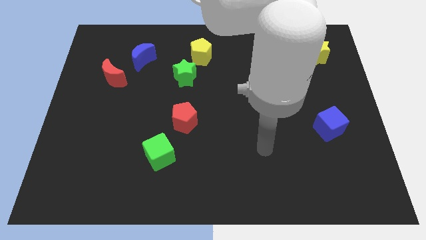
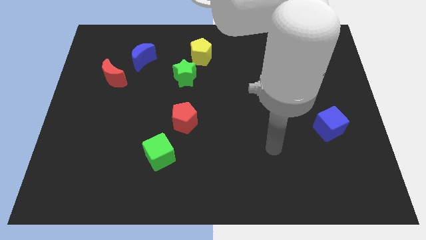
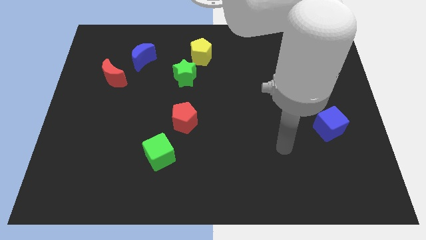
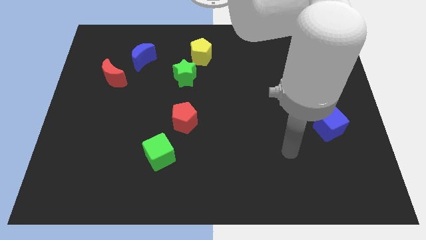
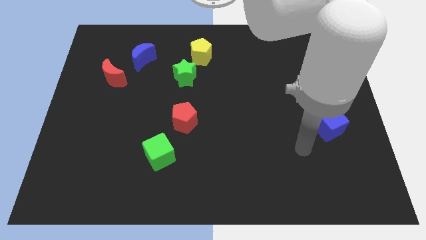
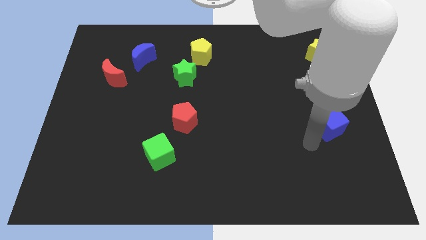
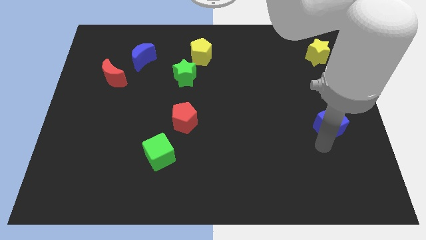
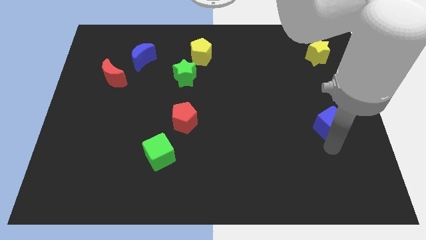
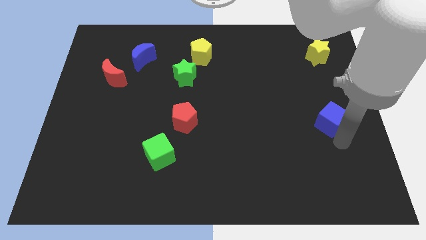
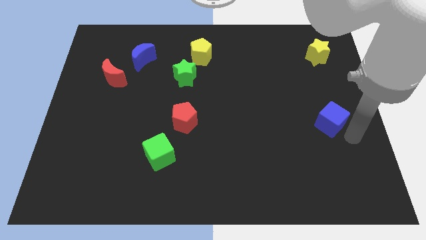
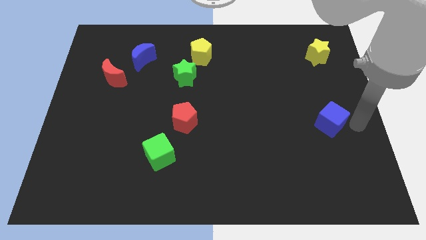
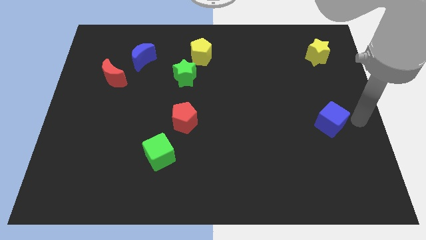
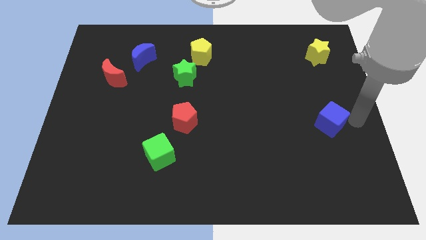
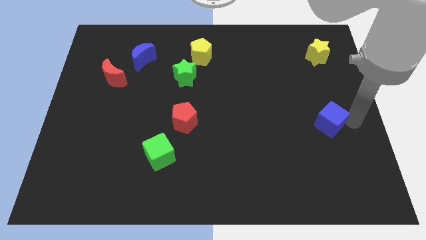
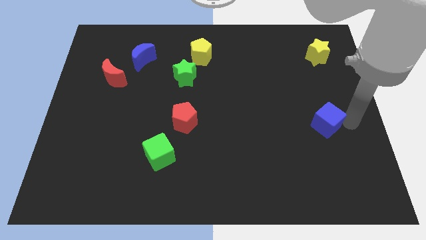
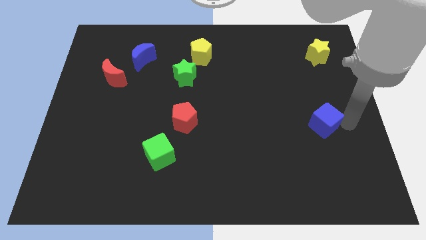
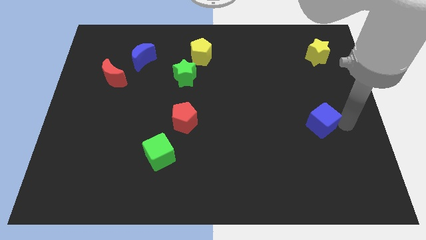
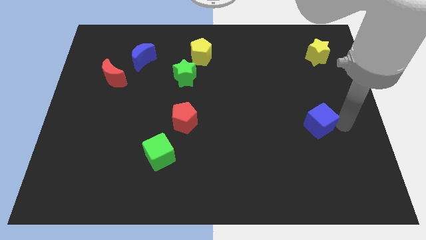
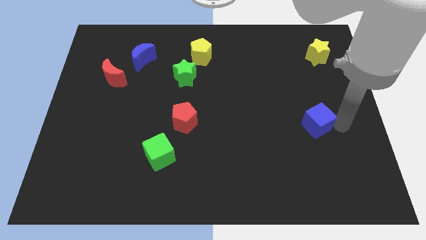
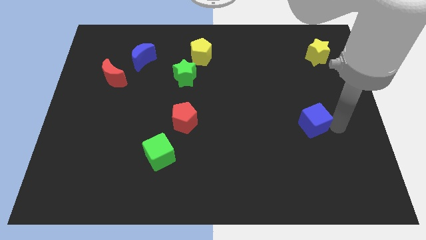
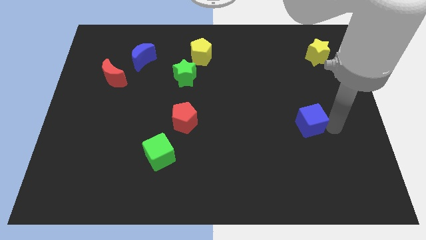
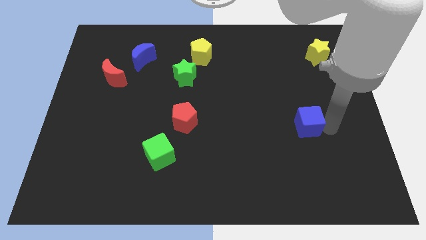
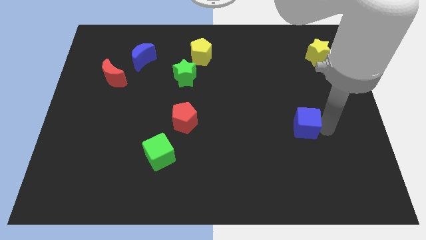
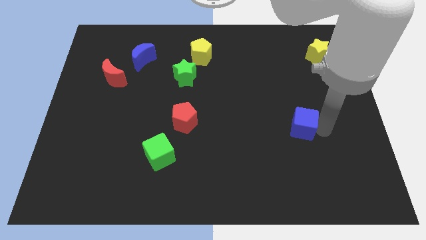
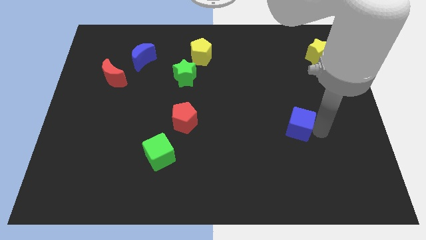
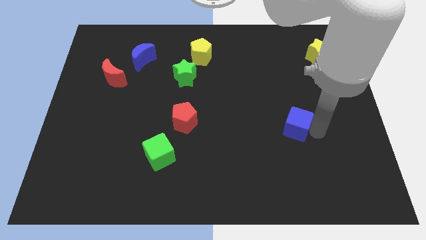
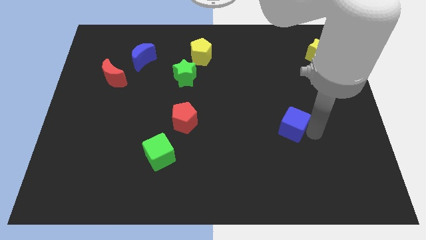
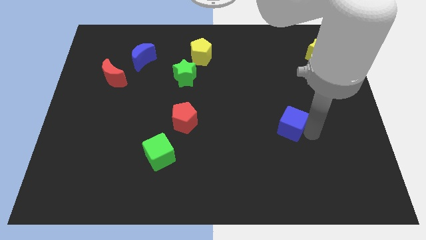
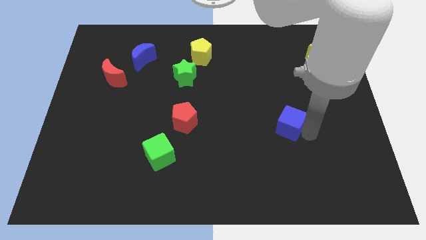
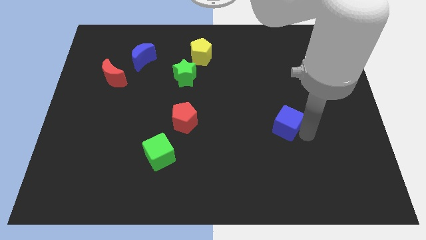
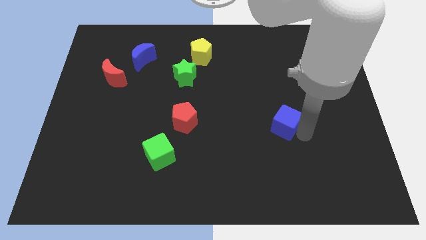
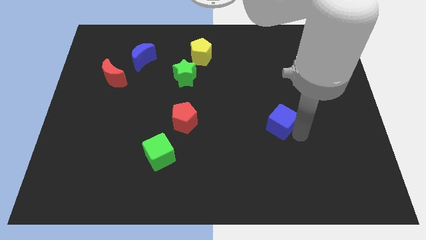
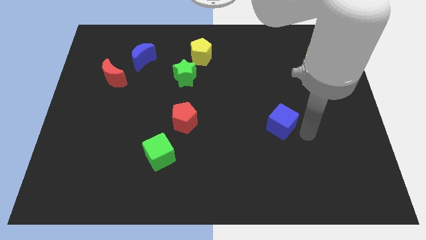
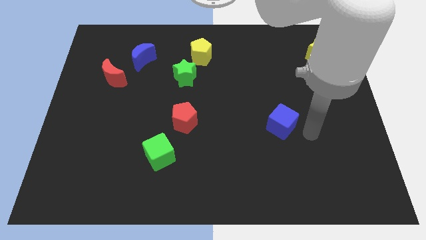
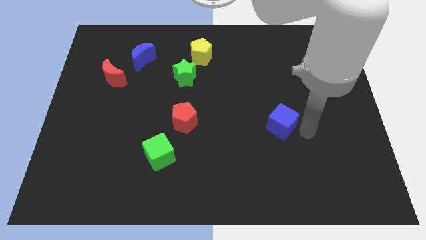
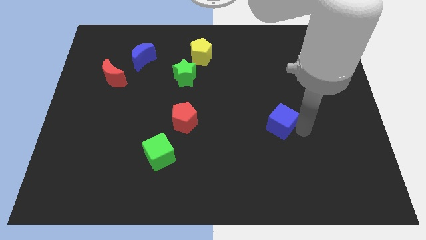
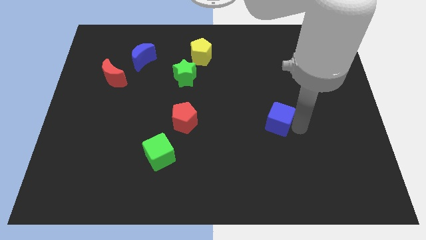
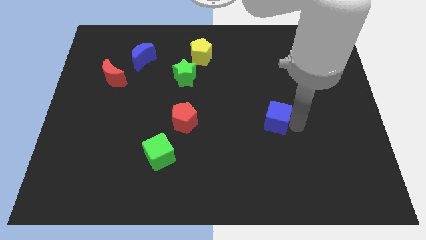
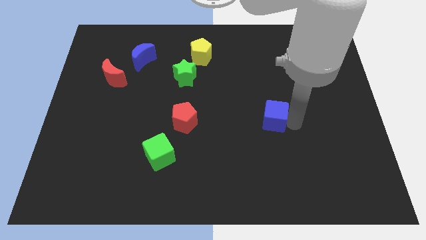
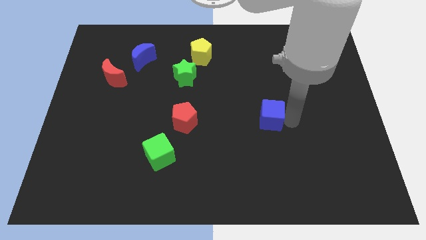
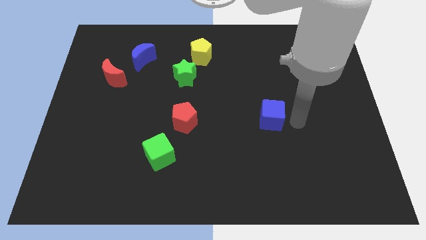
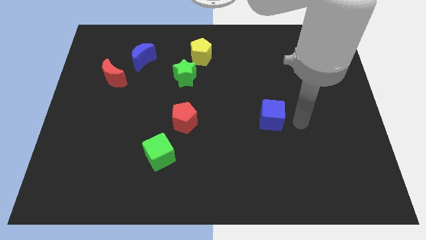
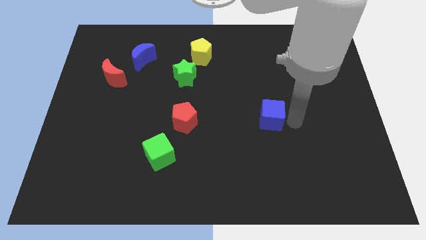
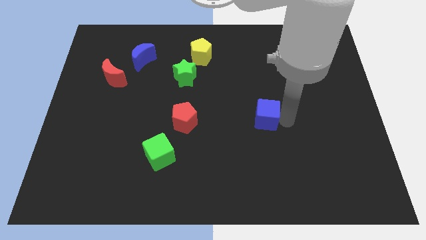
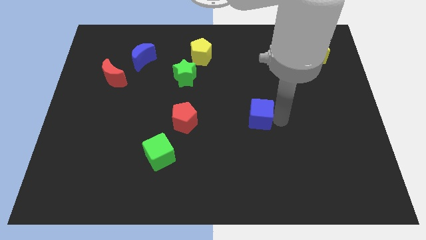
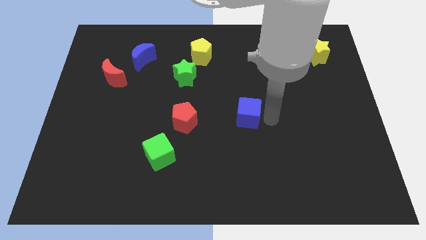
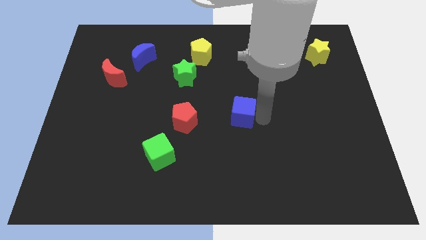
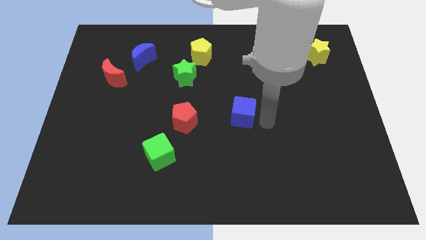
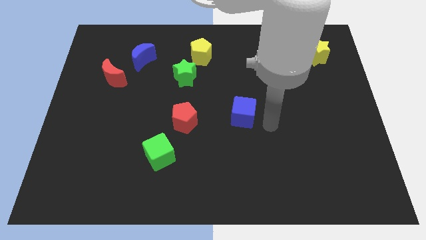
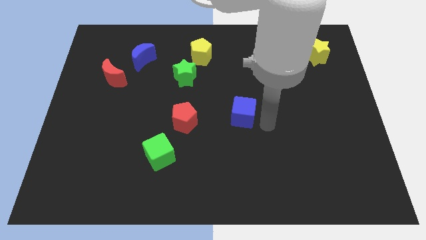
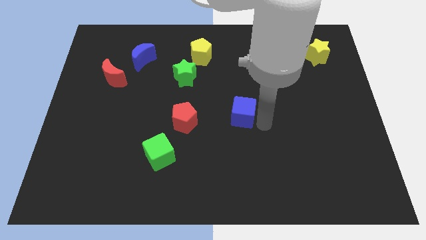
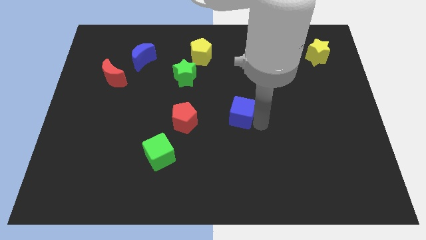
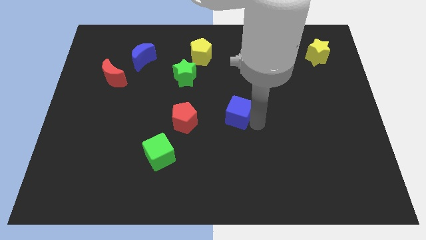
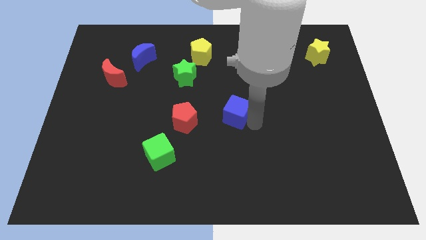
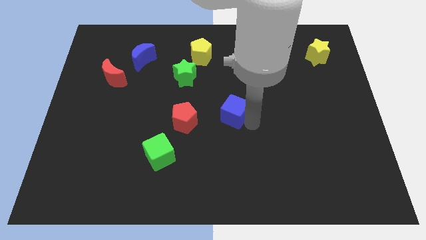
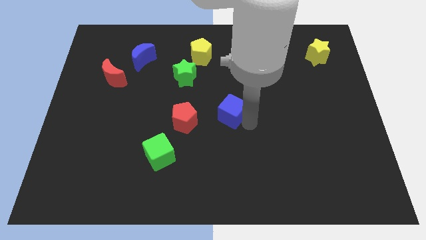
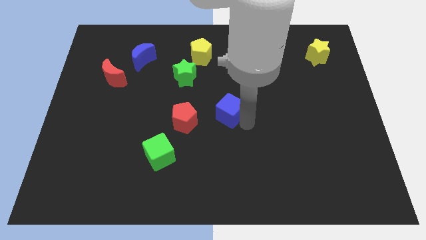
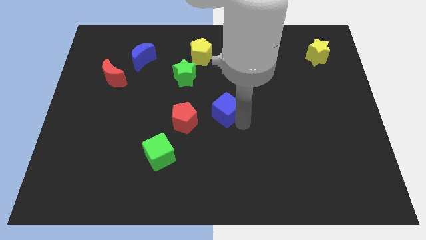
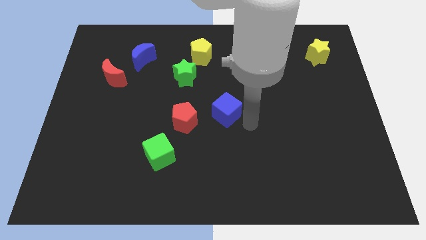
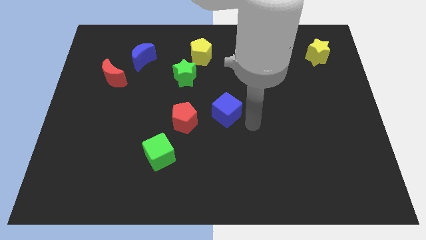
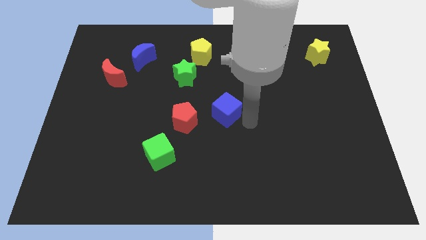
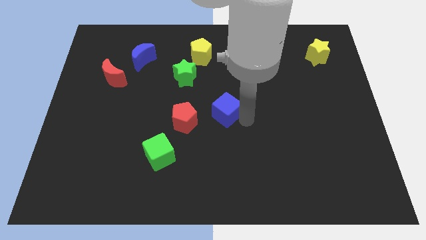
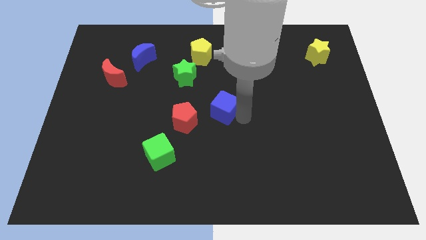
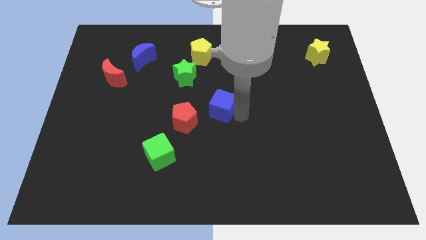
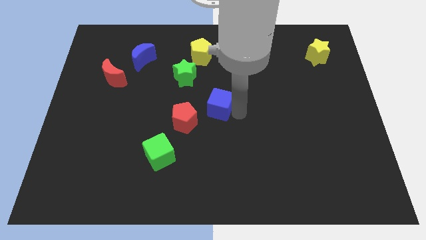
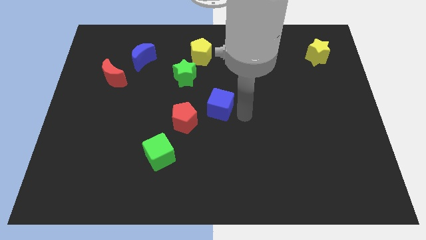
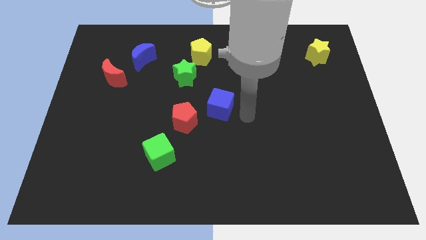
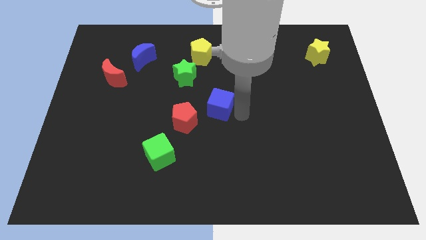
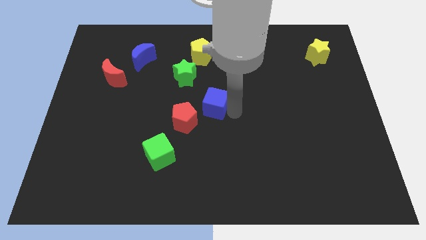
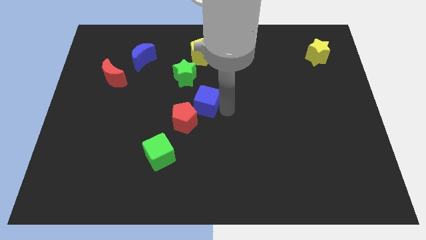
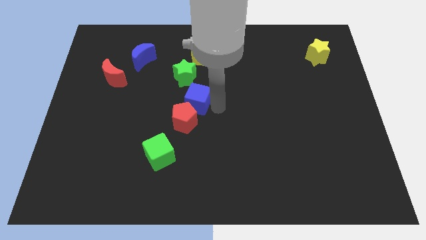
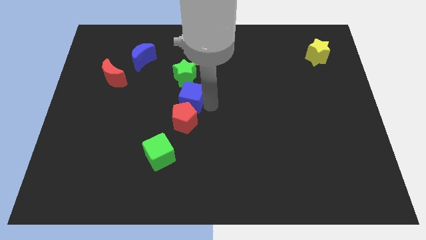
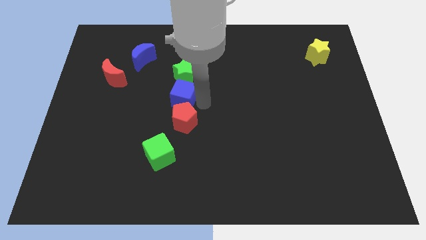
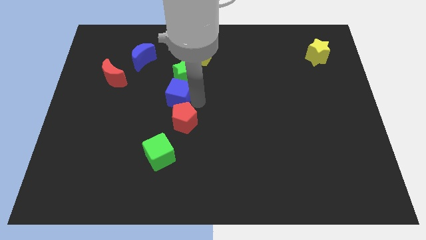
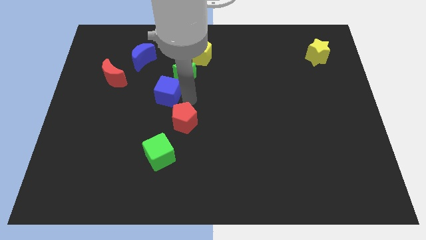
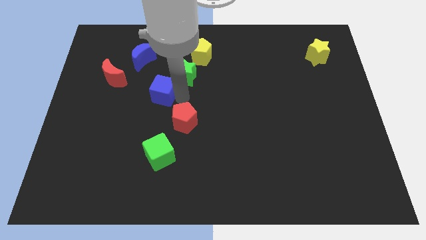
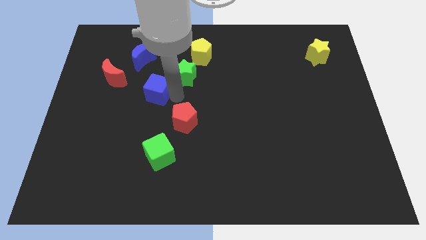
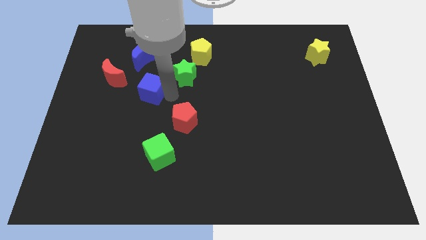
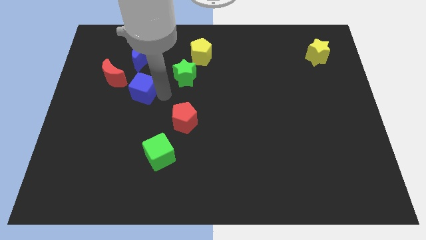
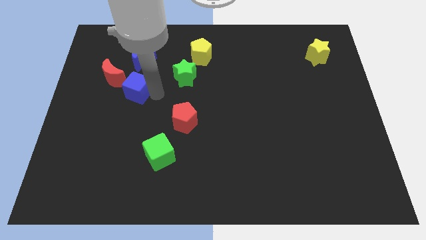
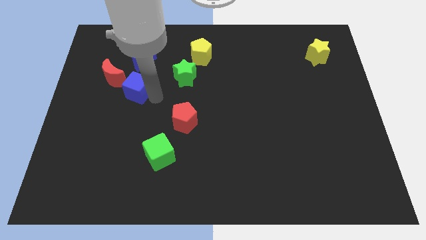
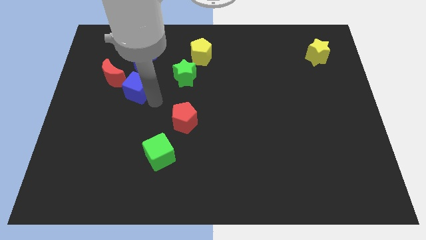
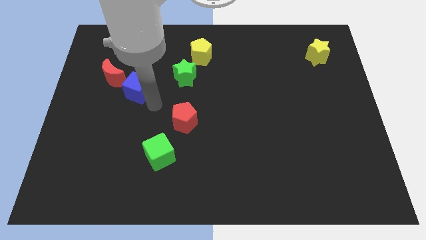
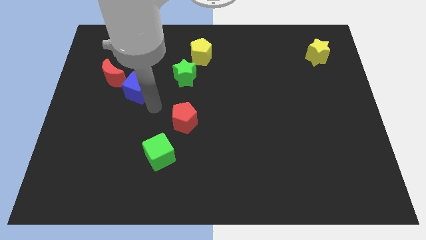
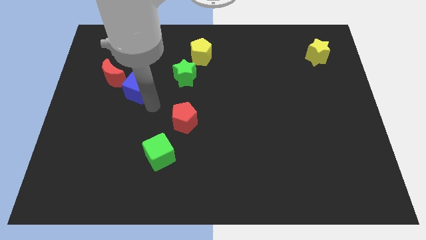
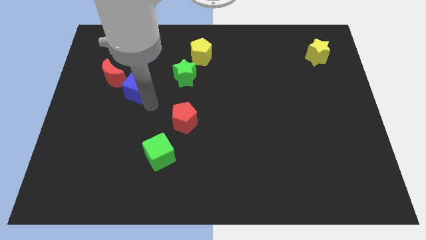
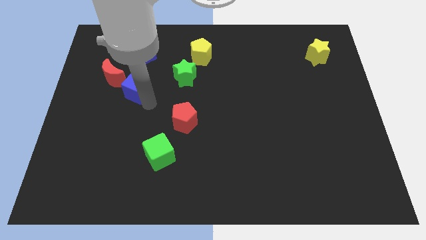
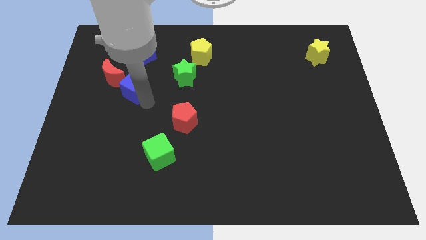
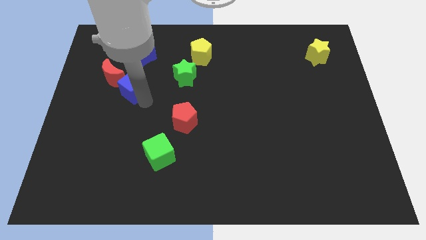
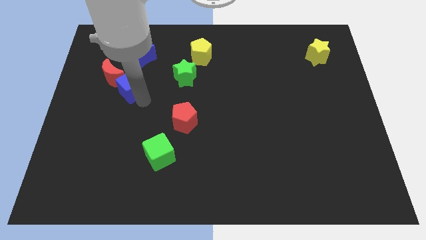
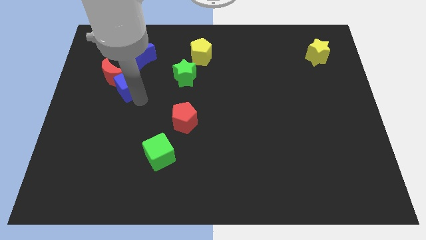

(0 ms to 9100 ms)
move the blue cube close to the red moon
